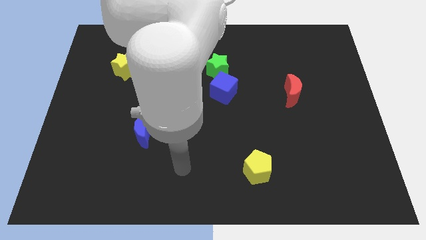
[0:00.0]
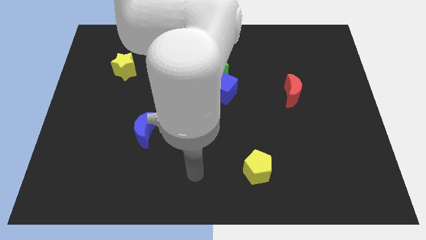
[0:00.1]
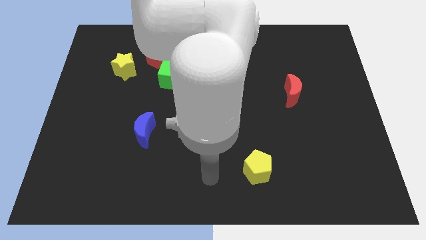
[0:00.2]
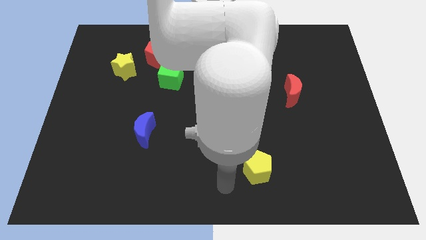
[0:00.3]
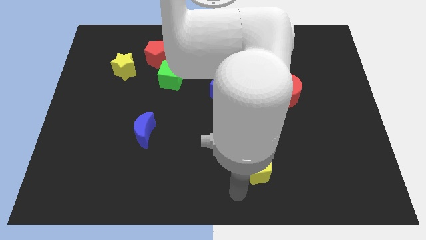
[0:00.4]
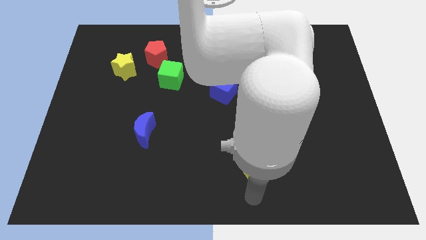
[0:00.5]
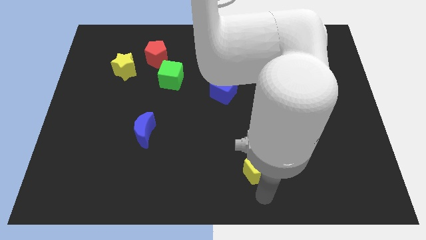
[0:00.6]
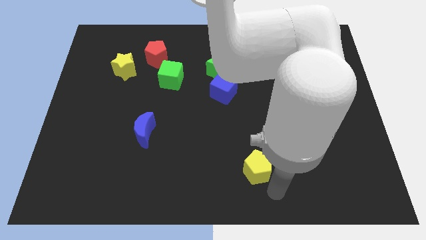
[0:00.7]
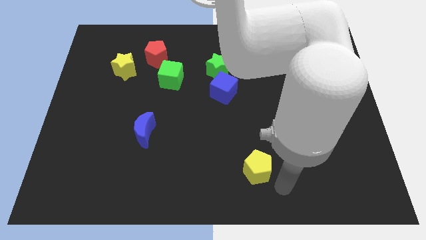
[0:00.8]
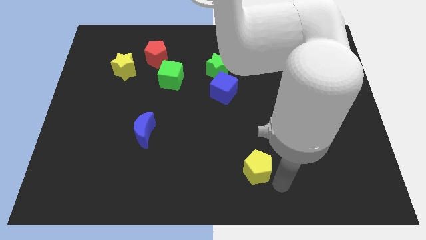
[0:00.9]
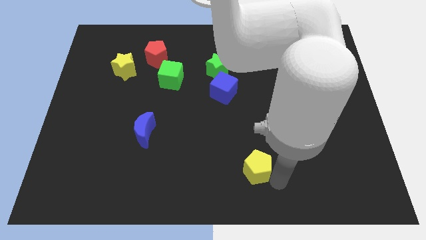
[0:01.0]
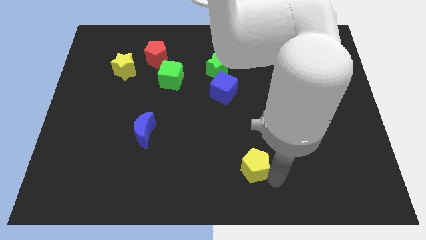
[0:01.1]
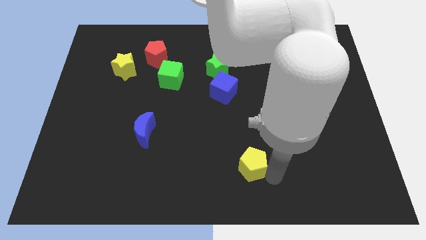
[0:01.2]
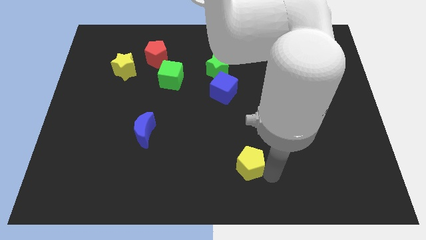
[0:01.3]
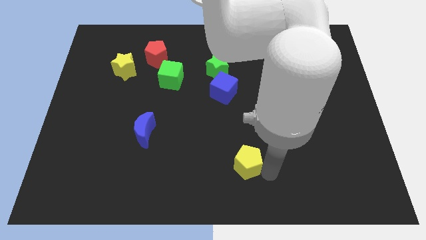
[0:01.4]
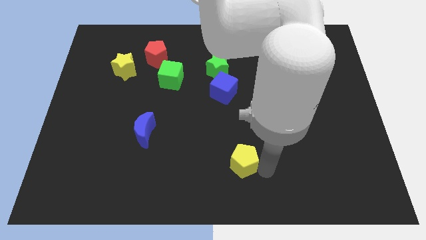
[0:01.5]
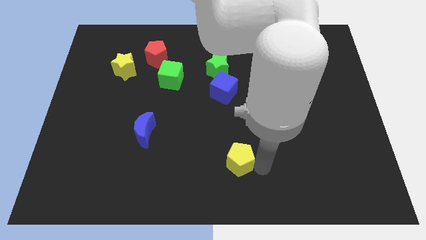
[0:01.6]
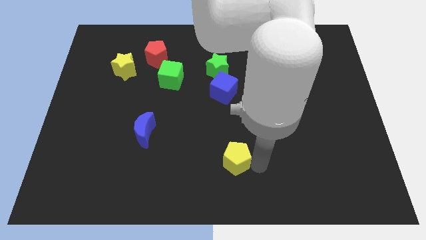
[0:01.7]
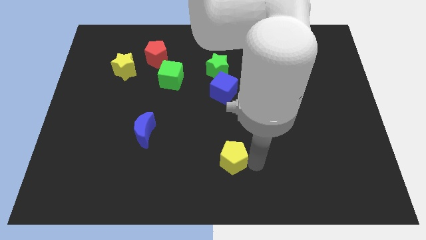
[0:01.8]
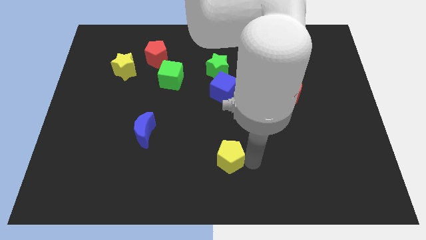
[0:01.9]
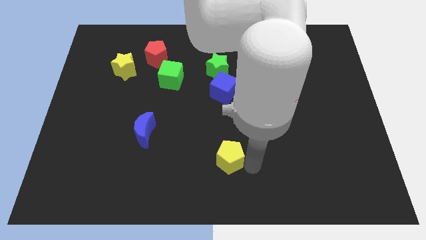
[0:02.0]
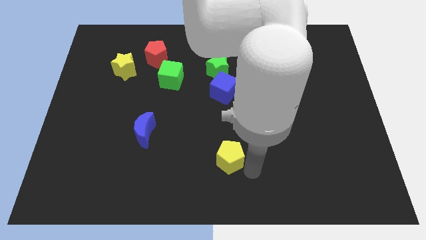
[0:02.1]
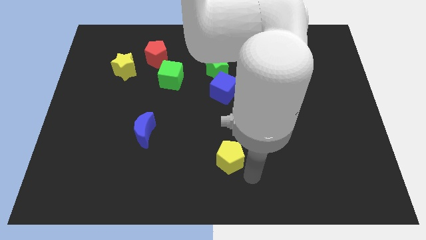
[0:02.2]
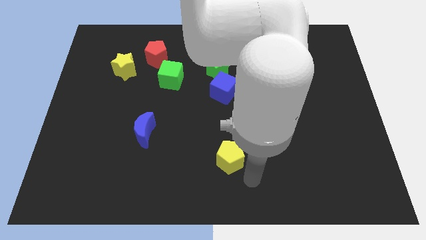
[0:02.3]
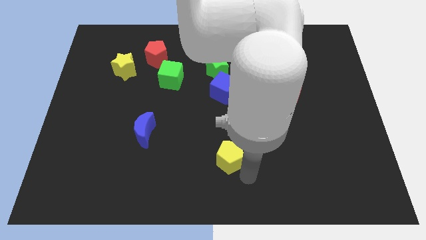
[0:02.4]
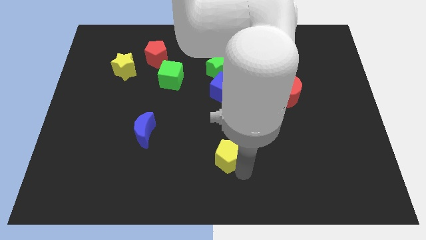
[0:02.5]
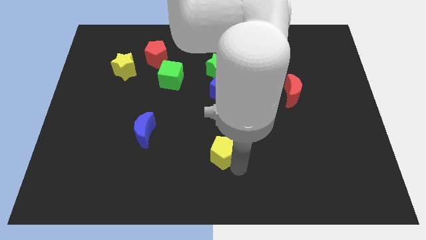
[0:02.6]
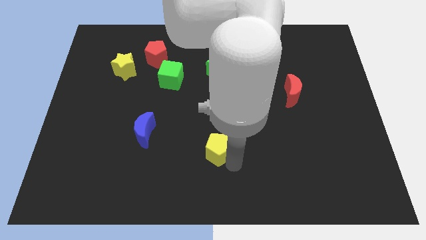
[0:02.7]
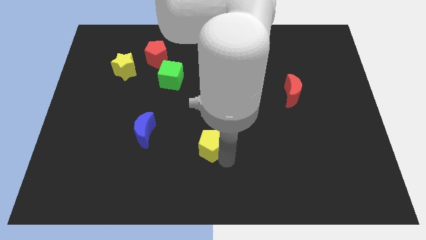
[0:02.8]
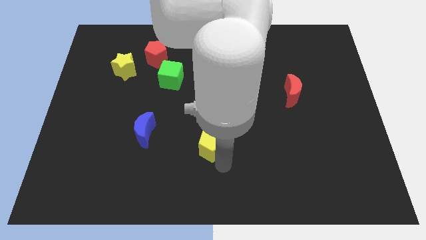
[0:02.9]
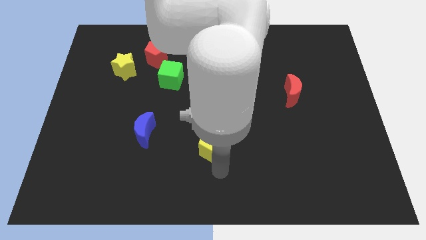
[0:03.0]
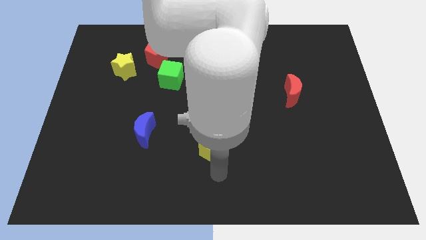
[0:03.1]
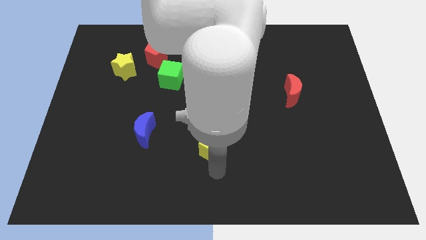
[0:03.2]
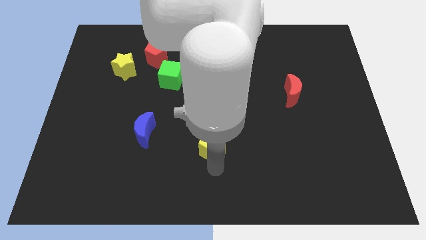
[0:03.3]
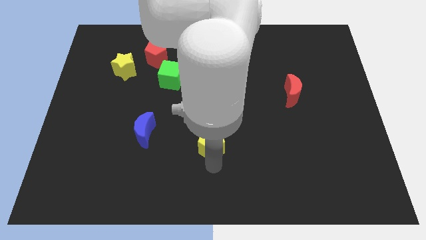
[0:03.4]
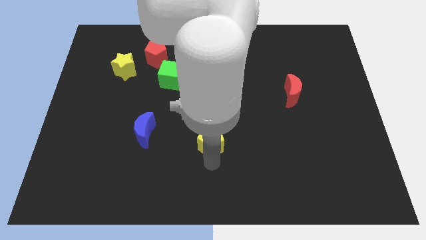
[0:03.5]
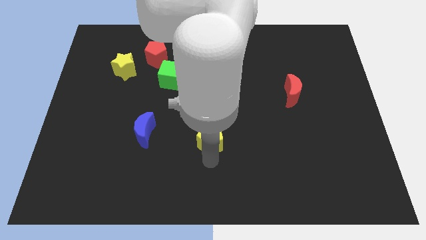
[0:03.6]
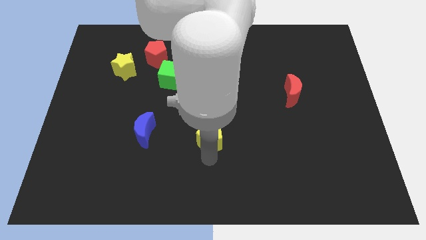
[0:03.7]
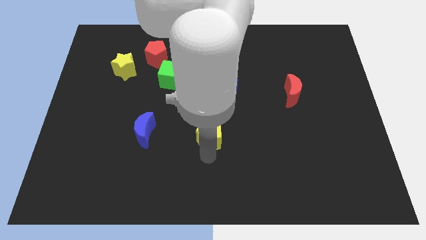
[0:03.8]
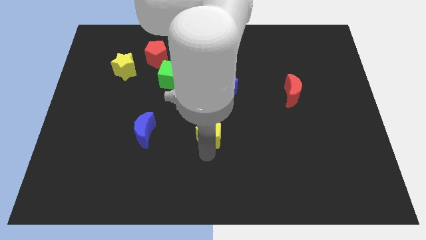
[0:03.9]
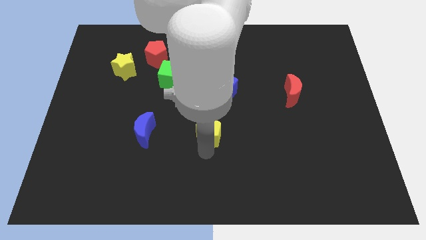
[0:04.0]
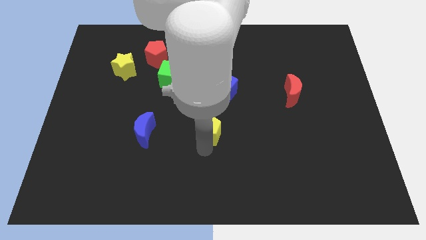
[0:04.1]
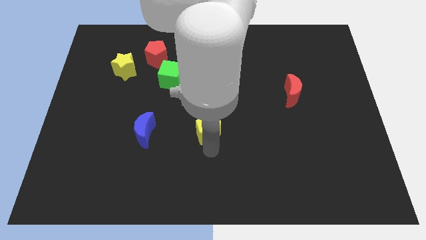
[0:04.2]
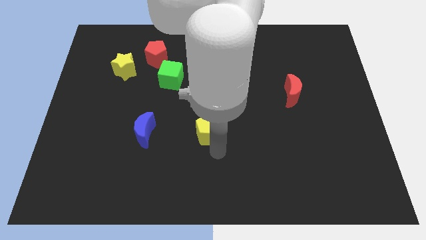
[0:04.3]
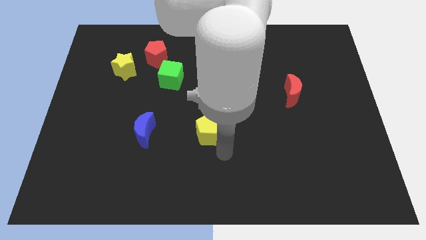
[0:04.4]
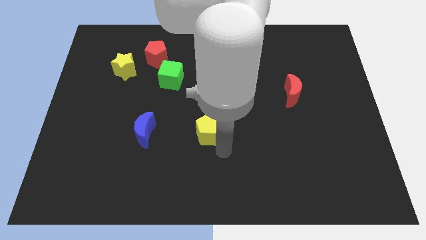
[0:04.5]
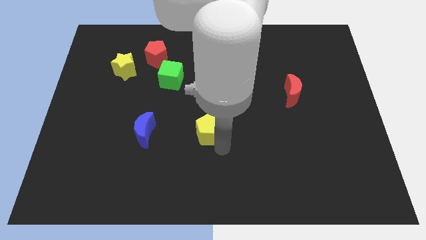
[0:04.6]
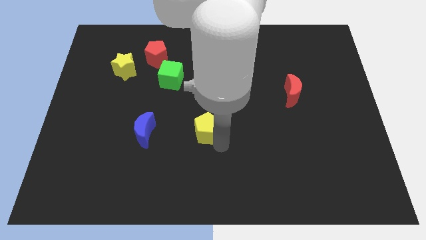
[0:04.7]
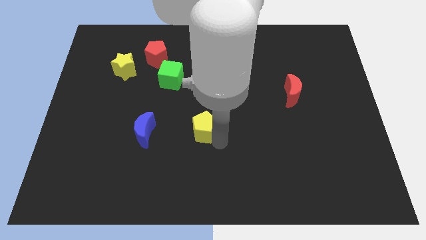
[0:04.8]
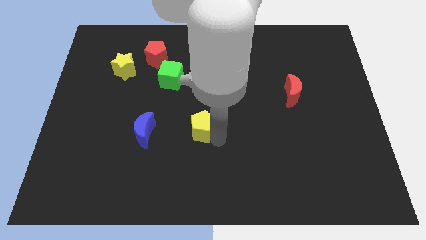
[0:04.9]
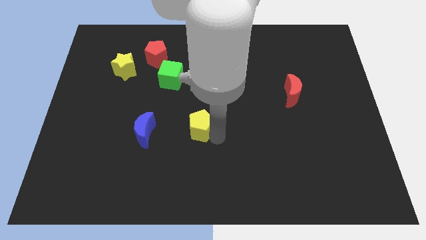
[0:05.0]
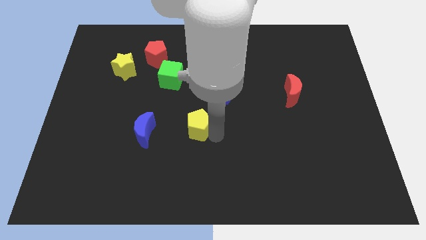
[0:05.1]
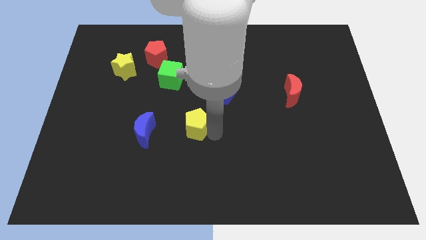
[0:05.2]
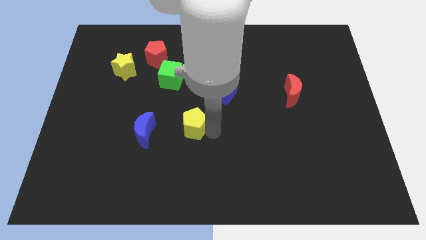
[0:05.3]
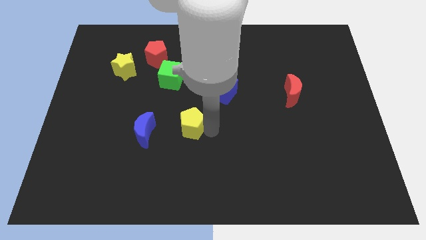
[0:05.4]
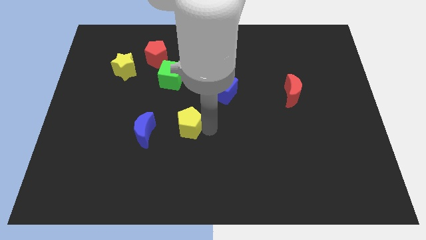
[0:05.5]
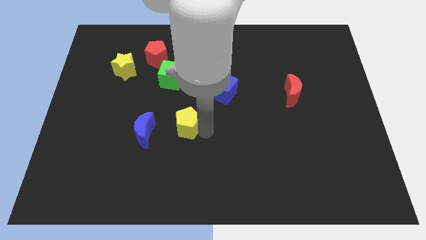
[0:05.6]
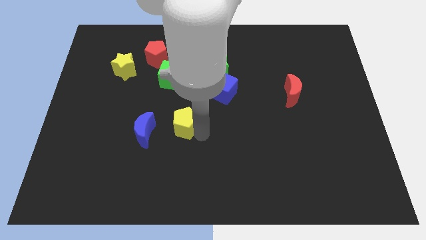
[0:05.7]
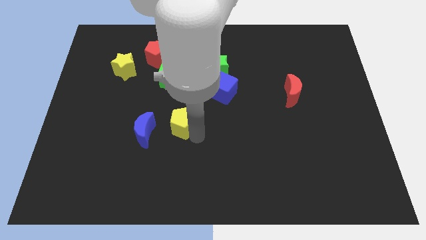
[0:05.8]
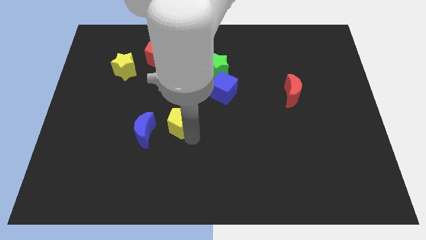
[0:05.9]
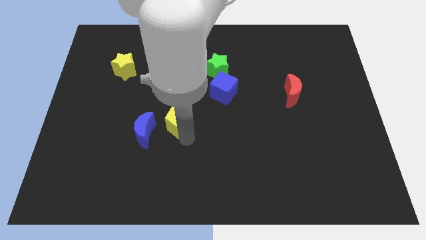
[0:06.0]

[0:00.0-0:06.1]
slide the yellow pentagon up and to the left diagonally

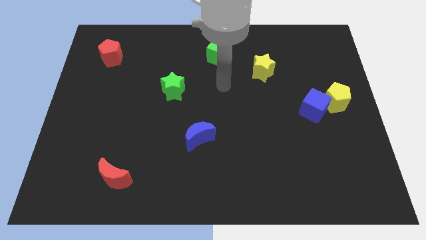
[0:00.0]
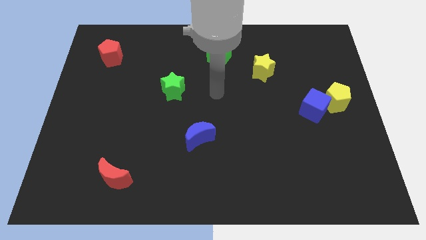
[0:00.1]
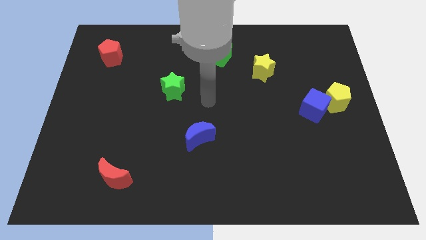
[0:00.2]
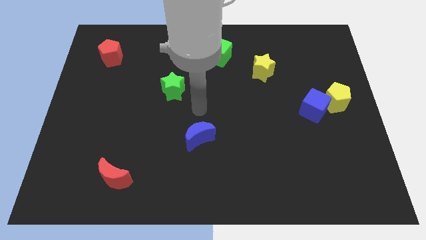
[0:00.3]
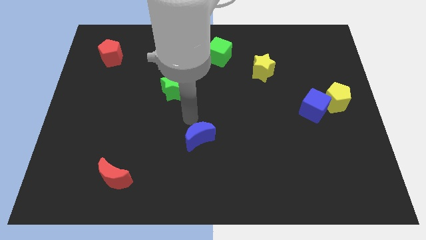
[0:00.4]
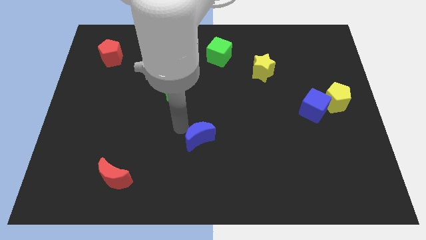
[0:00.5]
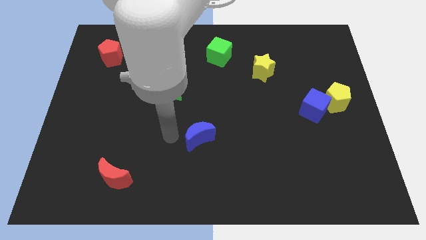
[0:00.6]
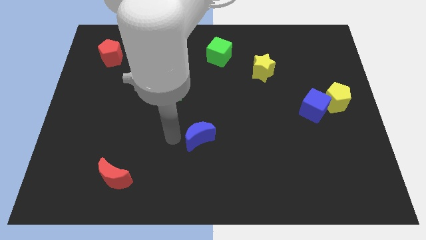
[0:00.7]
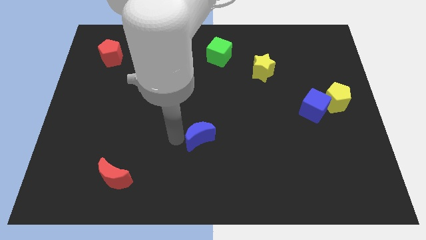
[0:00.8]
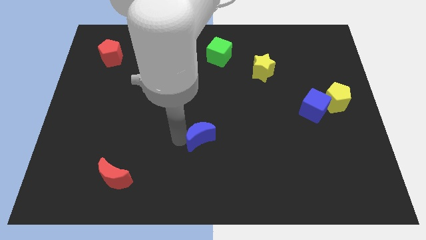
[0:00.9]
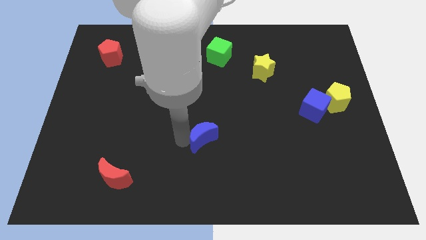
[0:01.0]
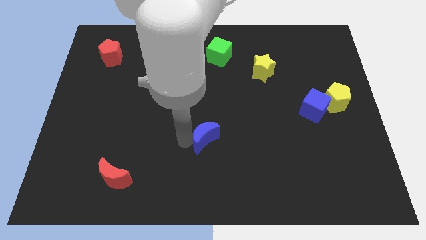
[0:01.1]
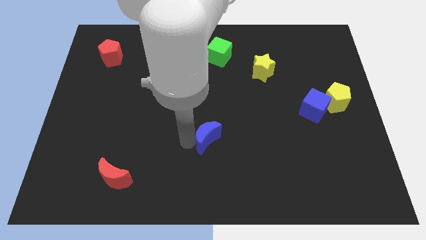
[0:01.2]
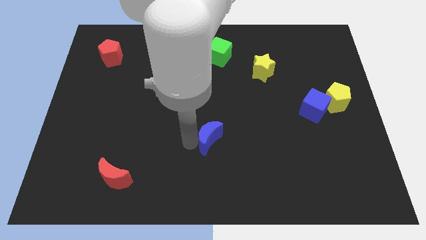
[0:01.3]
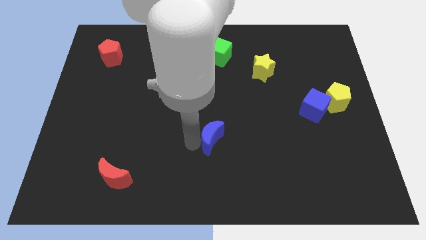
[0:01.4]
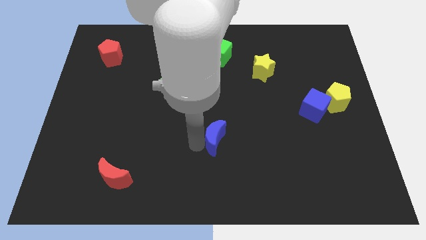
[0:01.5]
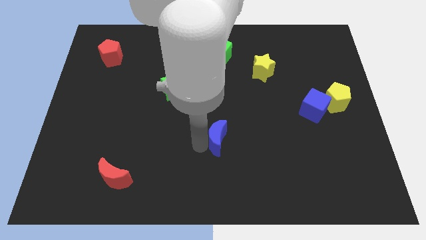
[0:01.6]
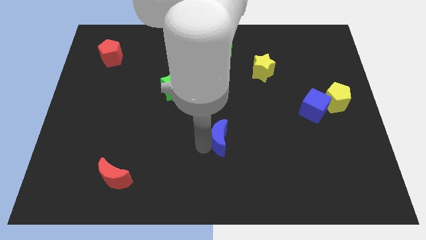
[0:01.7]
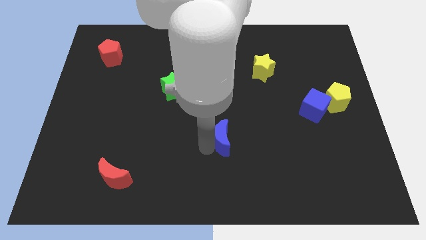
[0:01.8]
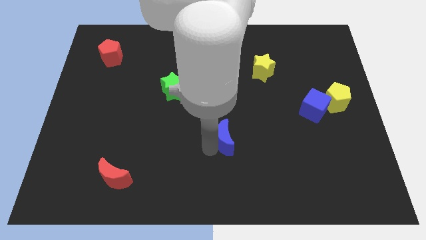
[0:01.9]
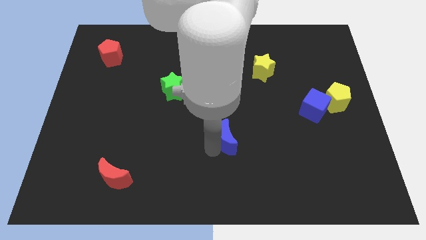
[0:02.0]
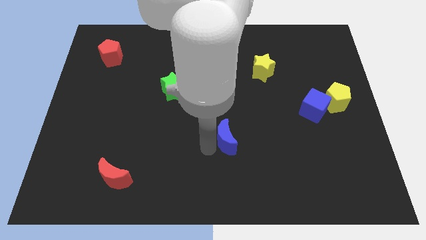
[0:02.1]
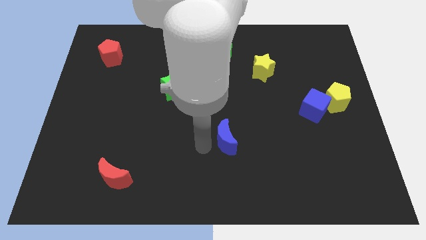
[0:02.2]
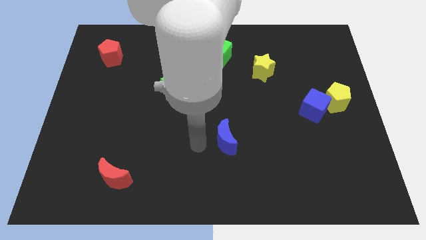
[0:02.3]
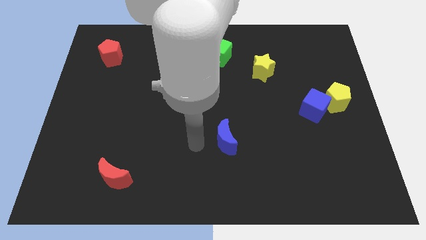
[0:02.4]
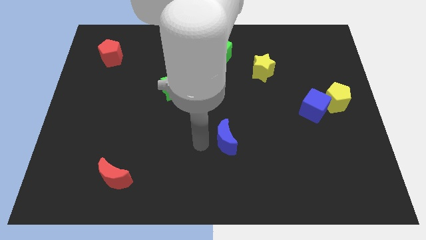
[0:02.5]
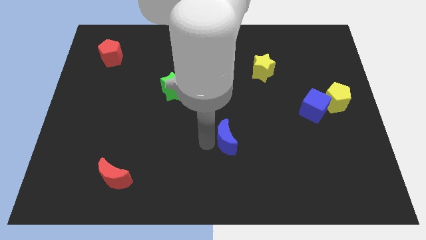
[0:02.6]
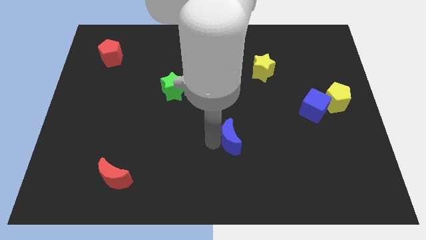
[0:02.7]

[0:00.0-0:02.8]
slide the blue moon right slightly
